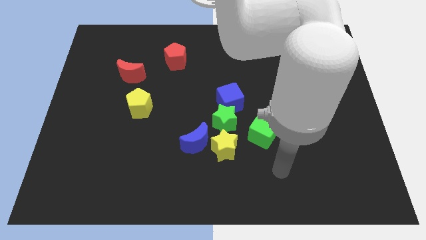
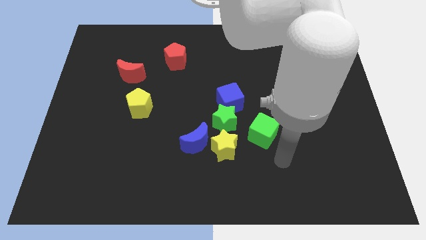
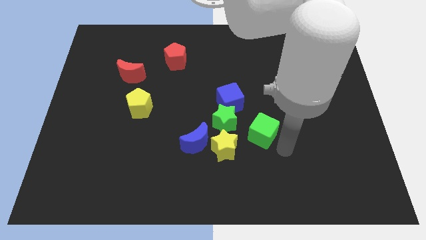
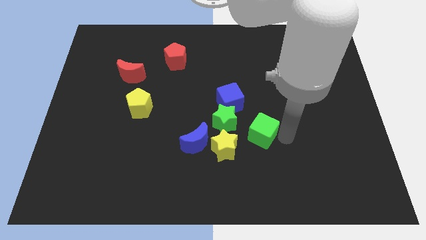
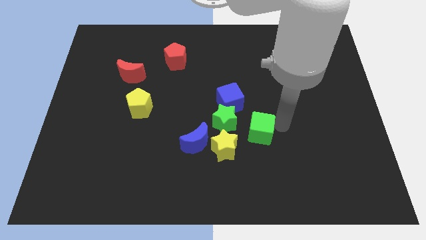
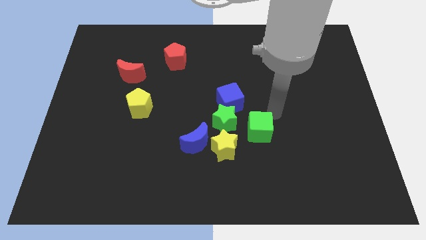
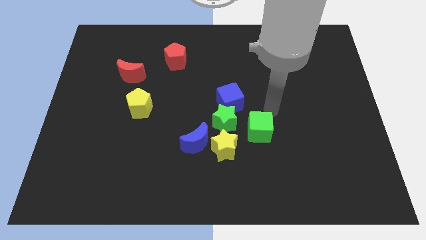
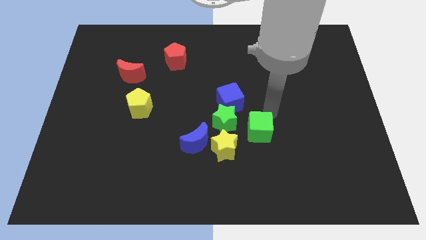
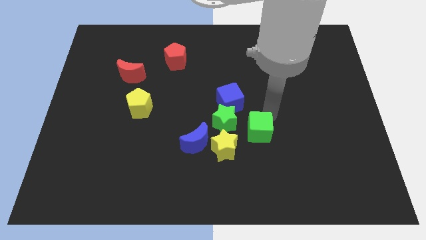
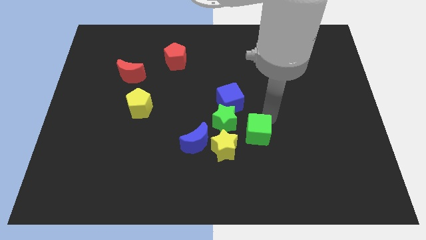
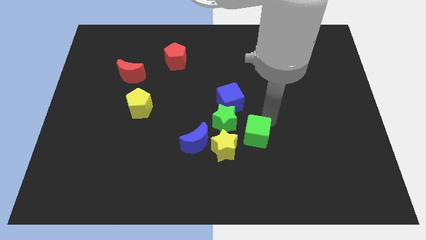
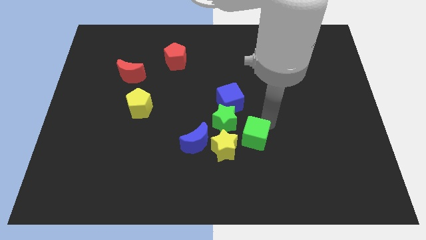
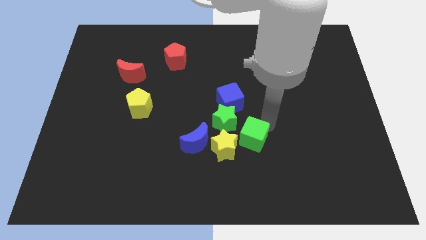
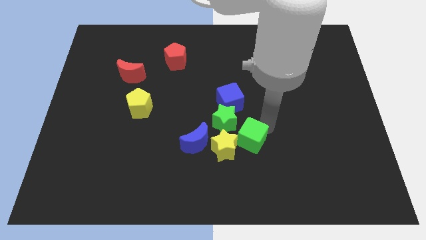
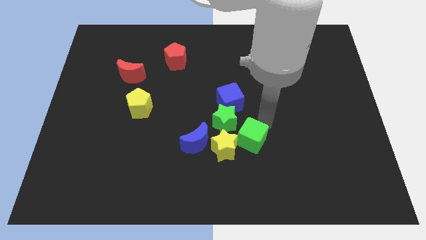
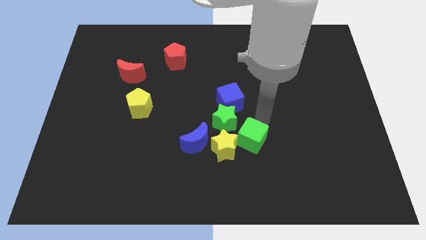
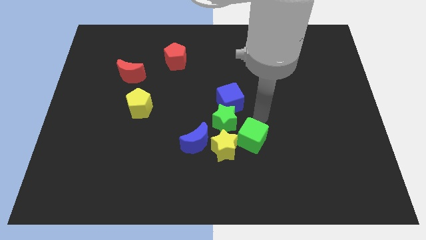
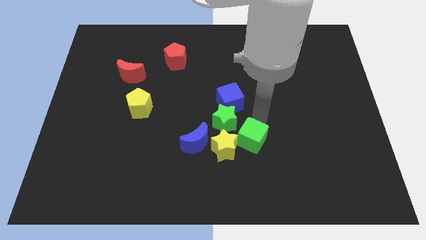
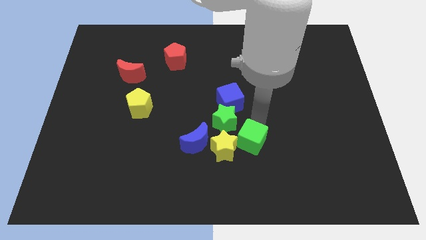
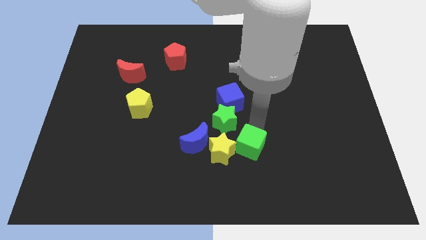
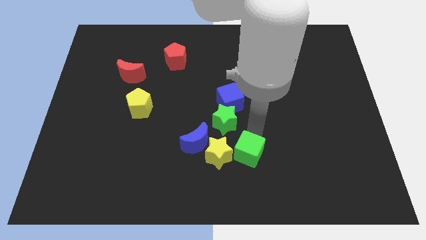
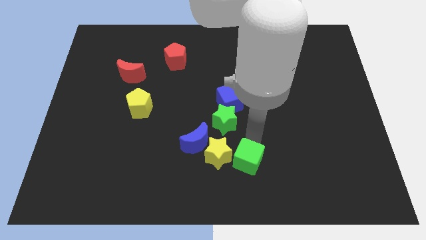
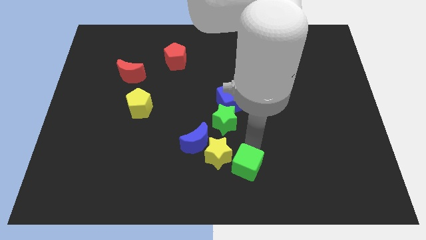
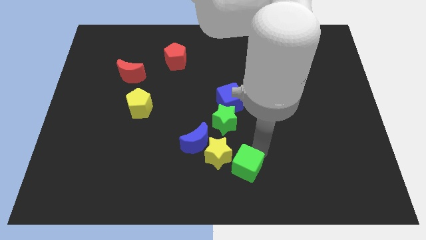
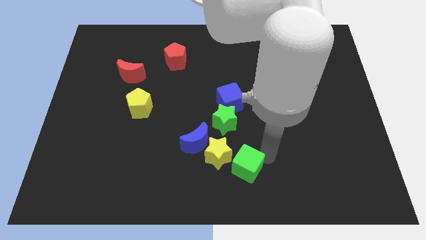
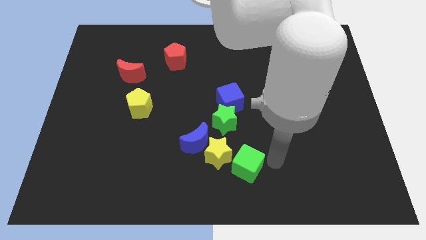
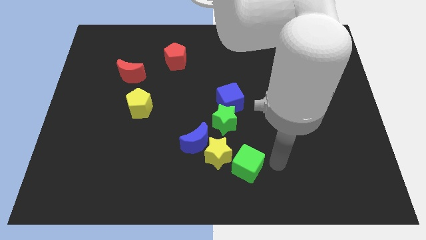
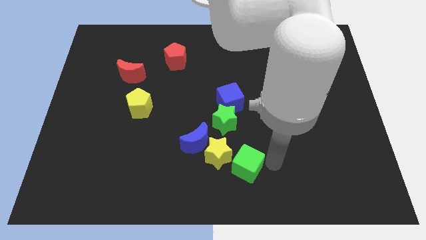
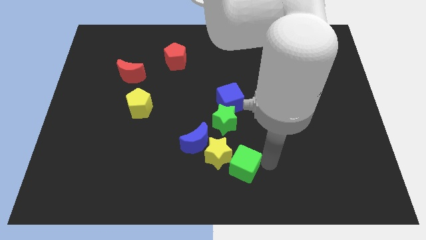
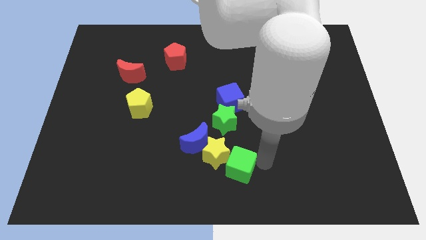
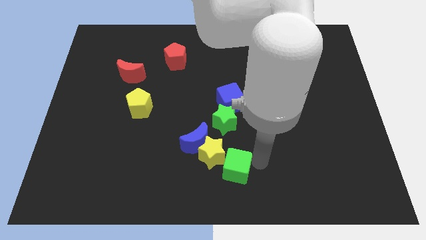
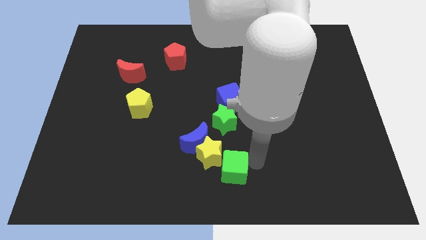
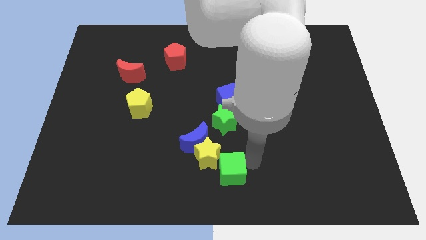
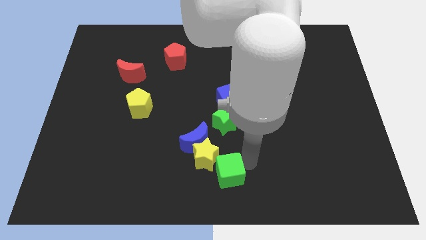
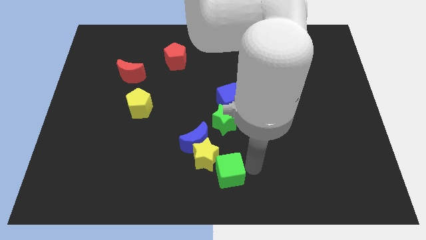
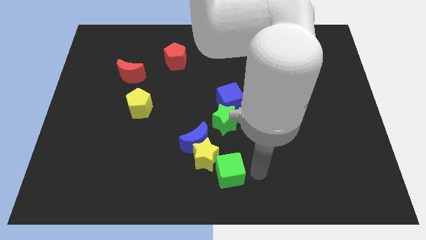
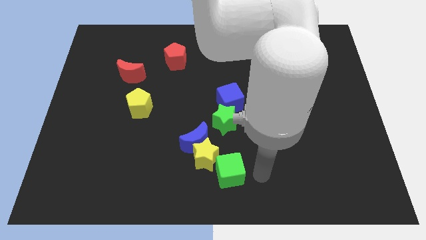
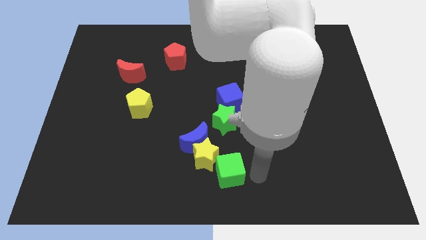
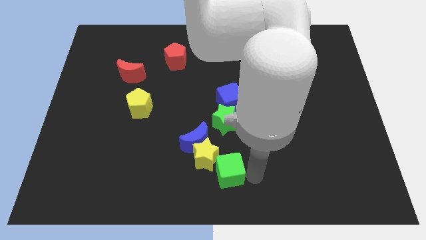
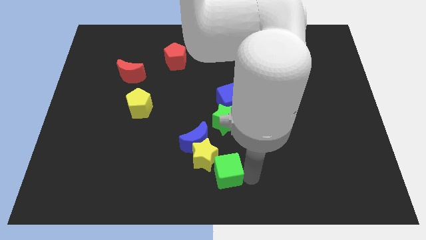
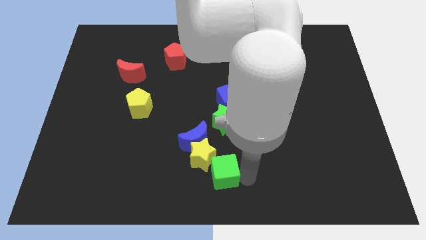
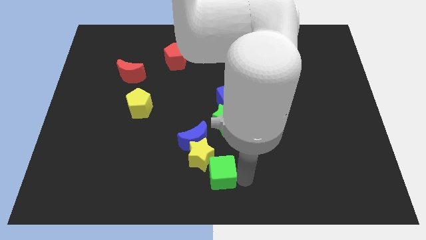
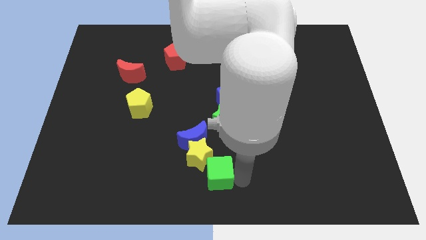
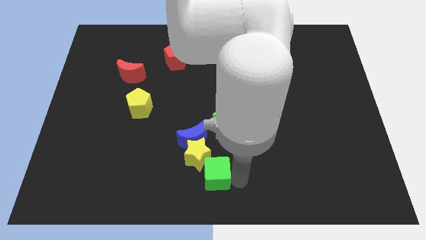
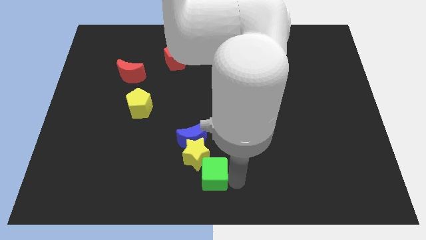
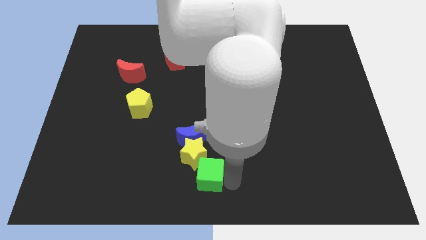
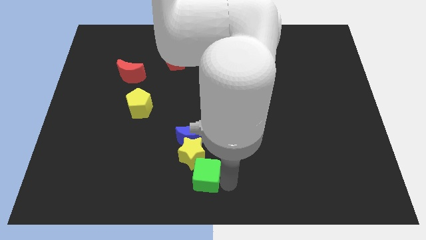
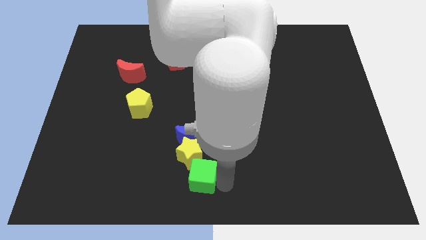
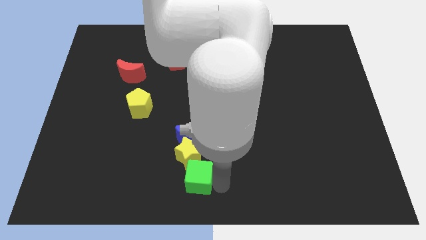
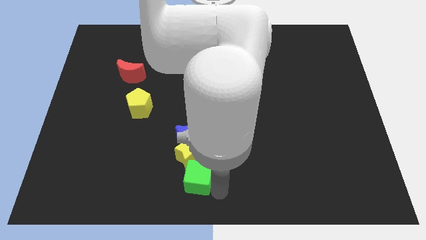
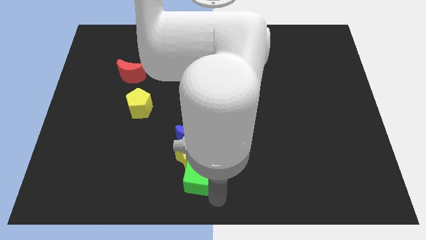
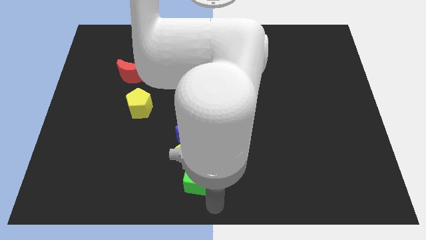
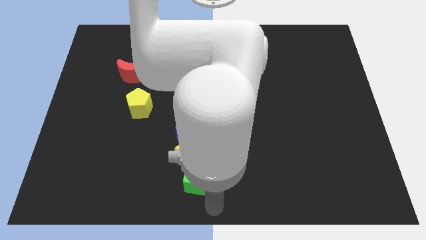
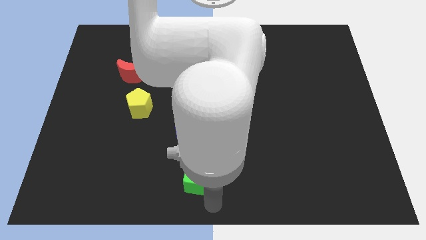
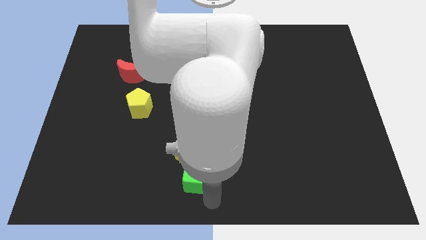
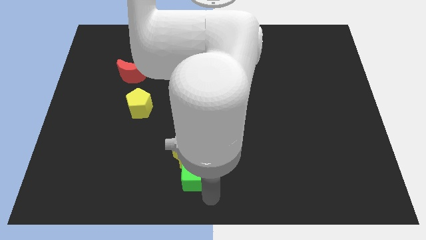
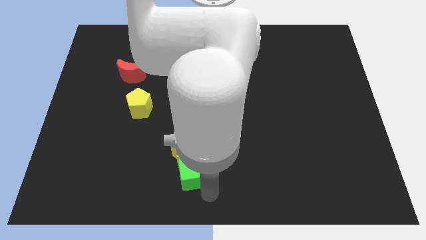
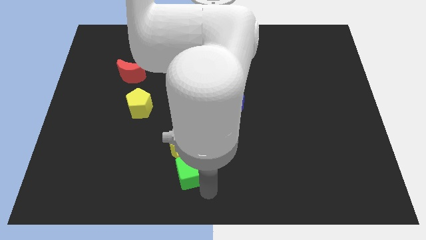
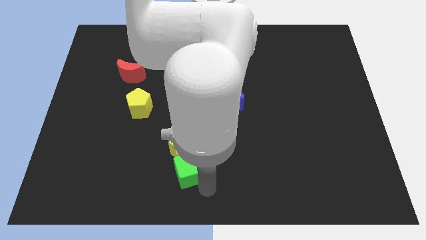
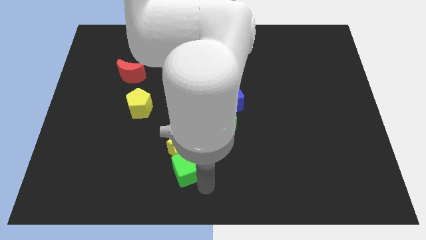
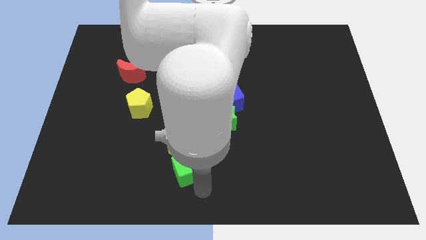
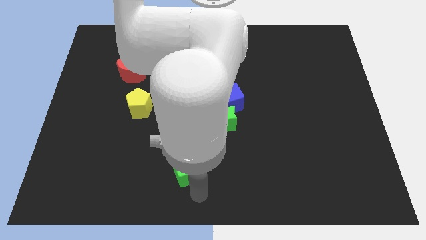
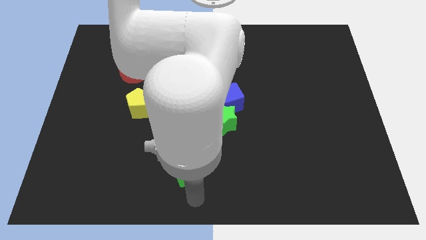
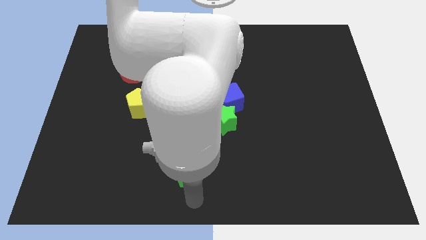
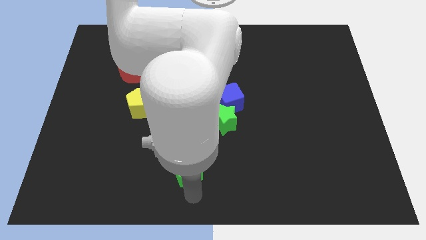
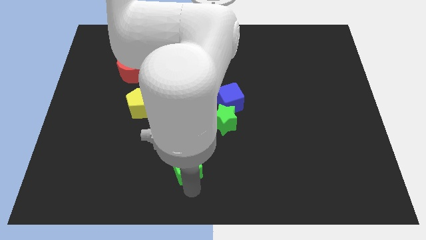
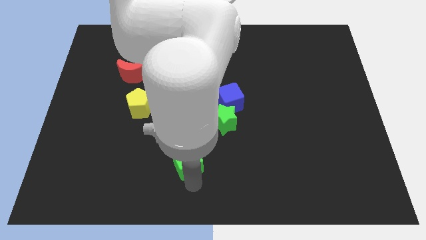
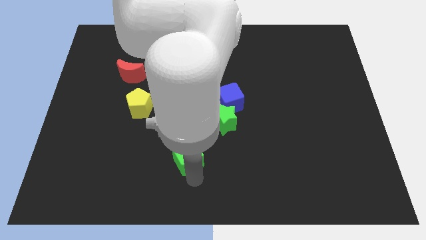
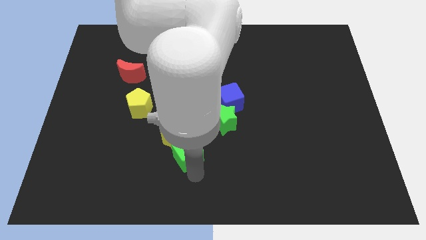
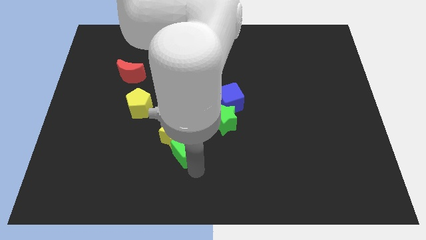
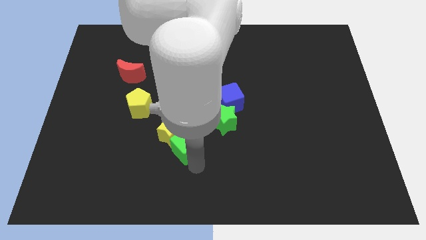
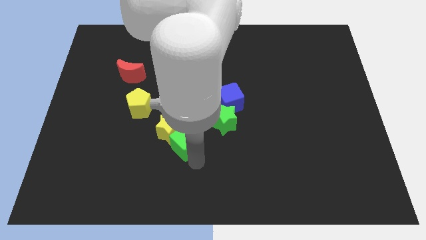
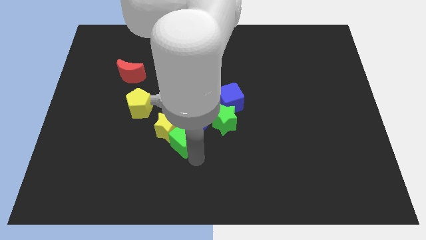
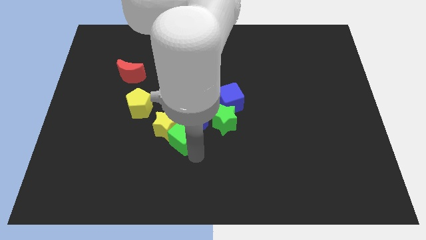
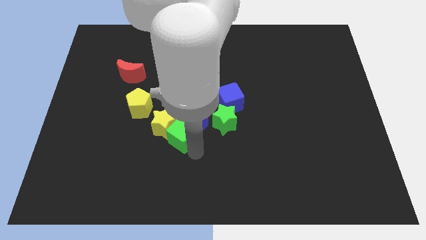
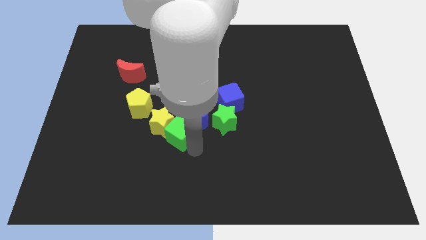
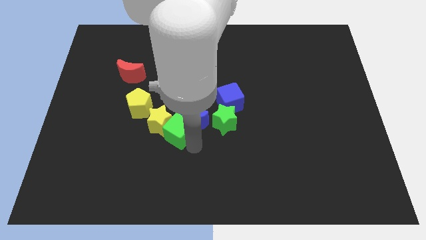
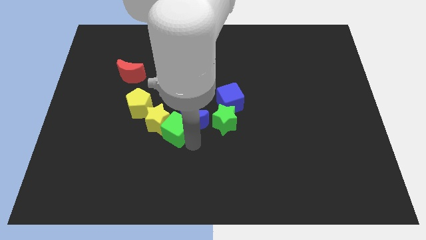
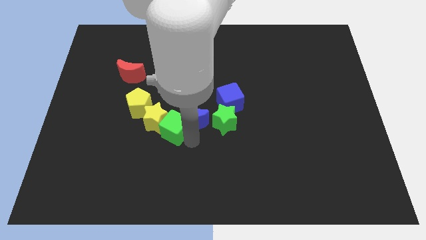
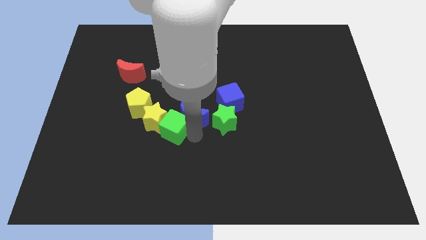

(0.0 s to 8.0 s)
slide the green cube left
